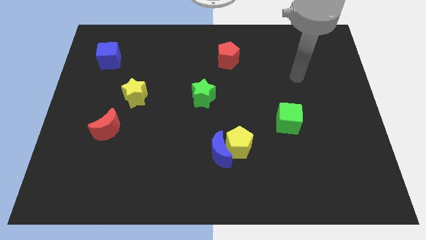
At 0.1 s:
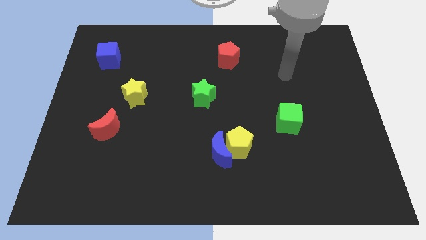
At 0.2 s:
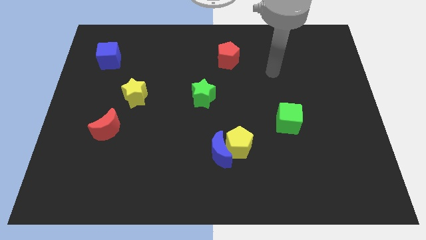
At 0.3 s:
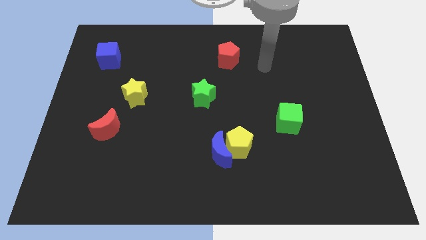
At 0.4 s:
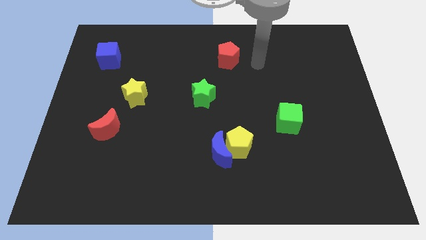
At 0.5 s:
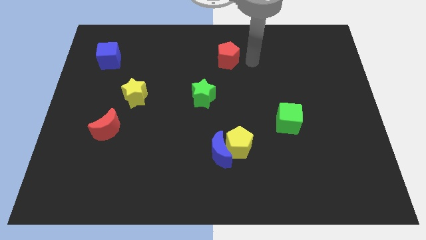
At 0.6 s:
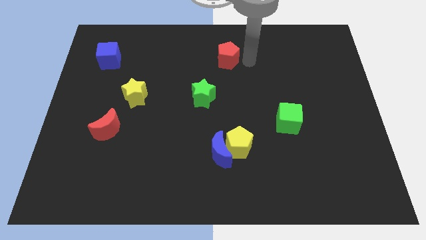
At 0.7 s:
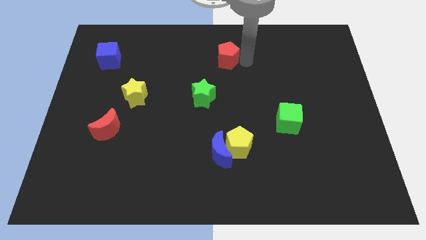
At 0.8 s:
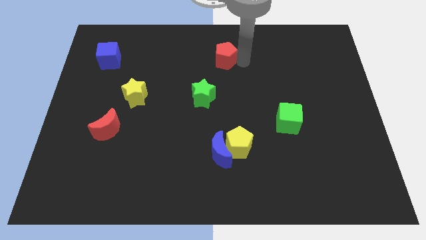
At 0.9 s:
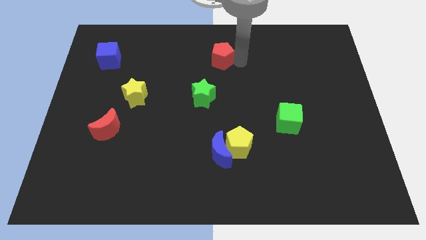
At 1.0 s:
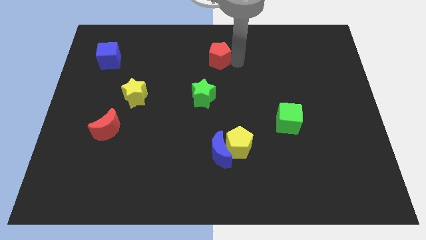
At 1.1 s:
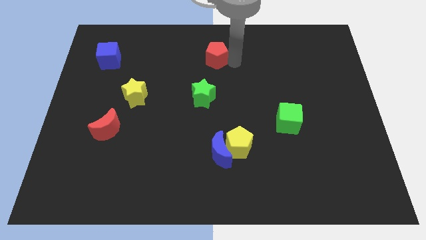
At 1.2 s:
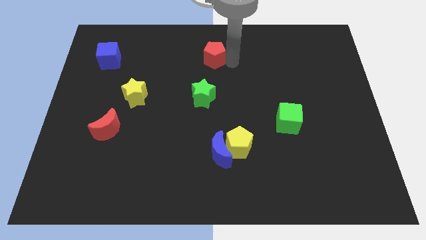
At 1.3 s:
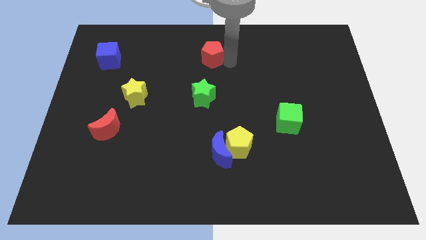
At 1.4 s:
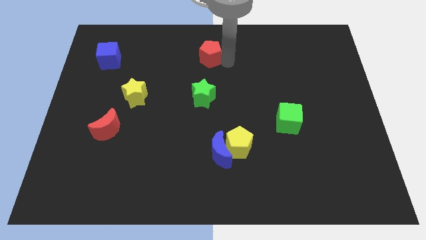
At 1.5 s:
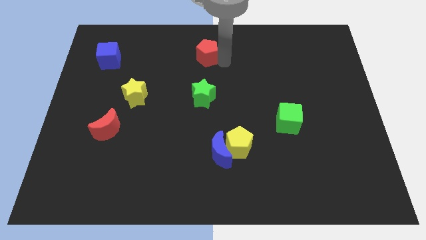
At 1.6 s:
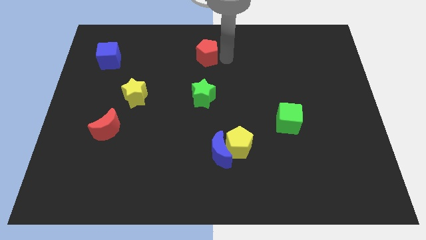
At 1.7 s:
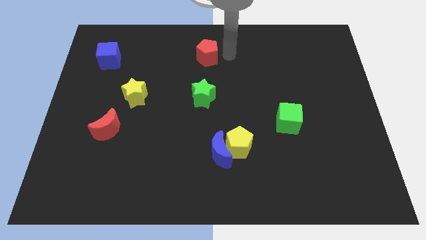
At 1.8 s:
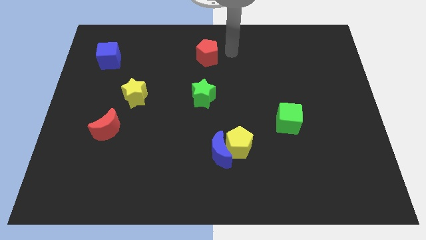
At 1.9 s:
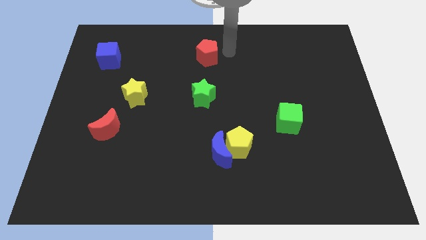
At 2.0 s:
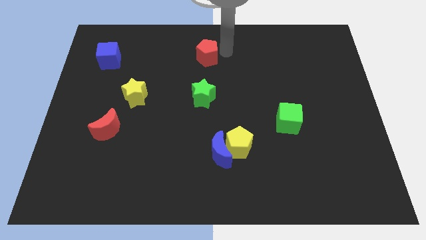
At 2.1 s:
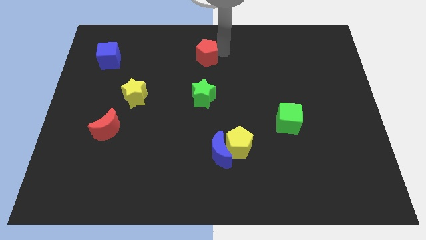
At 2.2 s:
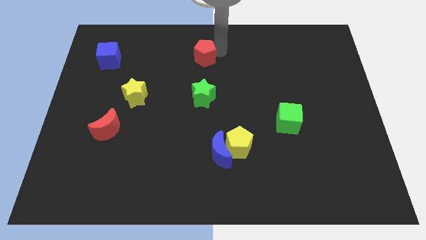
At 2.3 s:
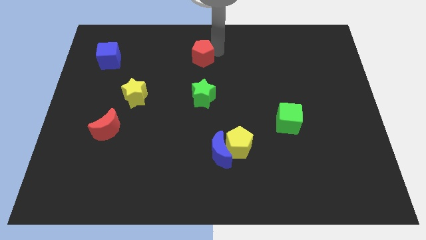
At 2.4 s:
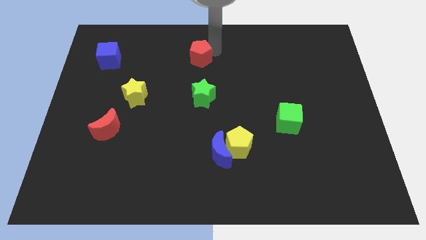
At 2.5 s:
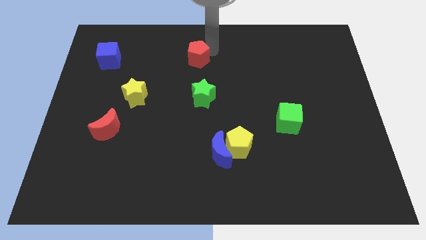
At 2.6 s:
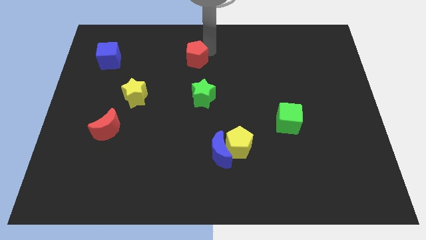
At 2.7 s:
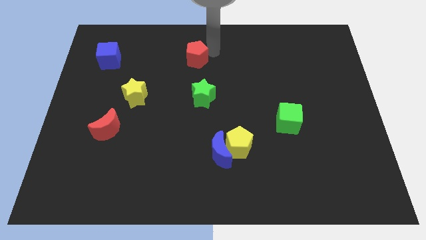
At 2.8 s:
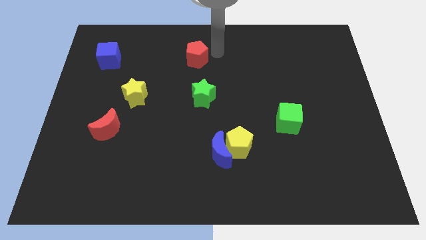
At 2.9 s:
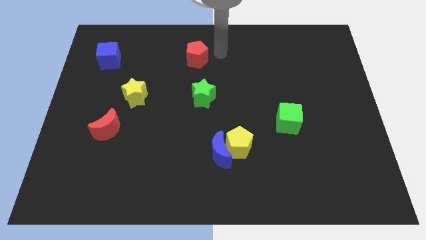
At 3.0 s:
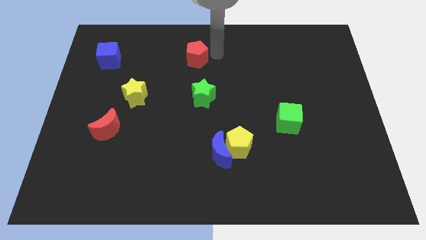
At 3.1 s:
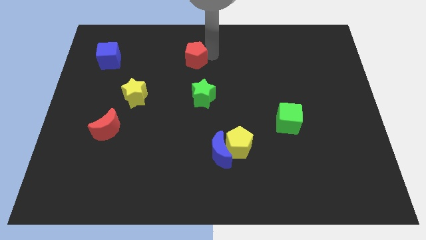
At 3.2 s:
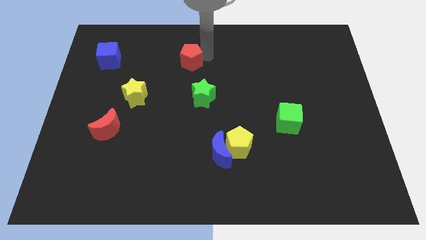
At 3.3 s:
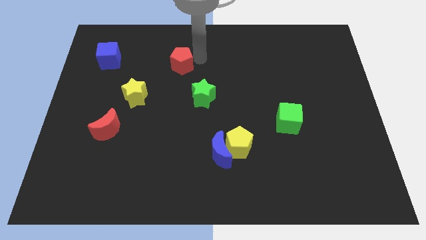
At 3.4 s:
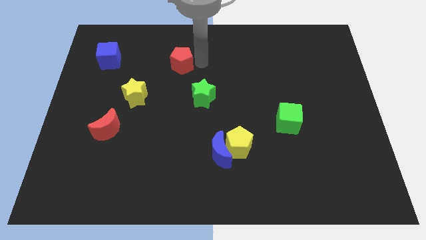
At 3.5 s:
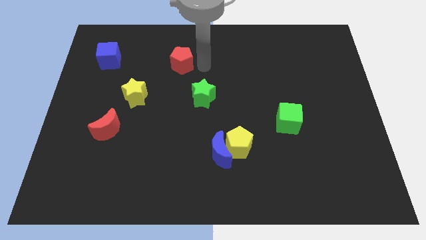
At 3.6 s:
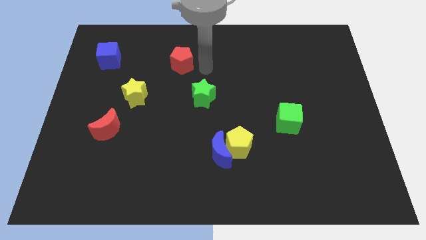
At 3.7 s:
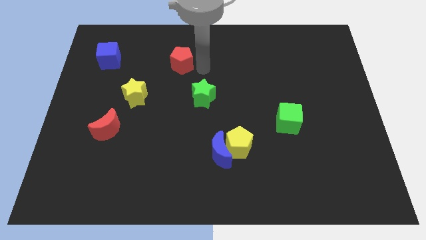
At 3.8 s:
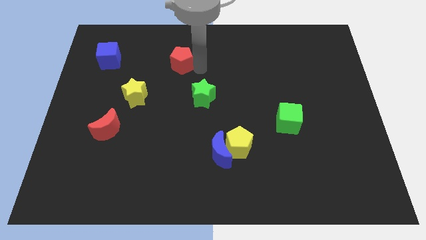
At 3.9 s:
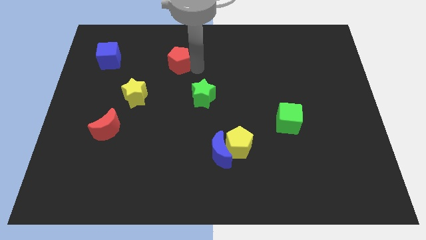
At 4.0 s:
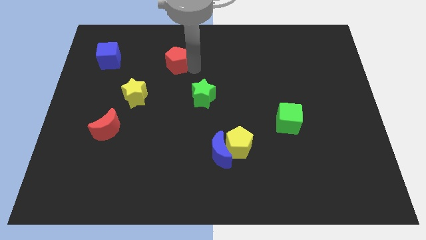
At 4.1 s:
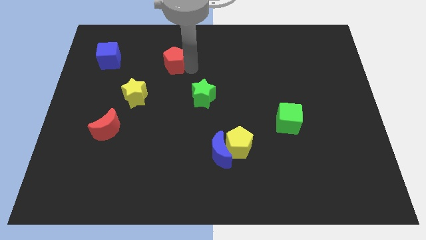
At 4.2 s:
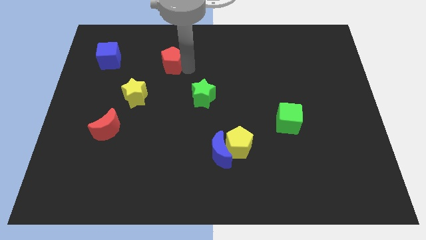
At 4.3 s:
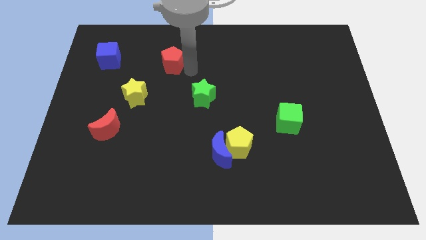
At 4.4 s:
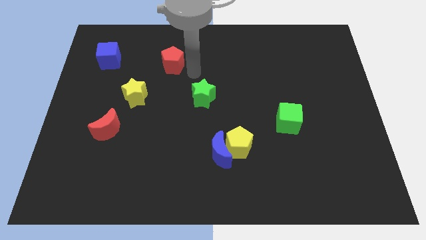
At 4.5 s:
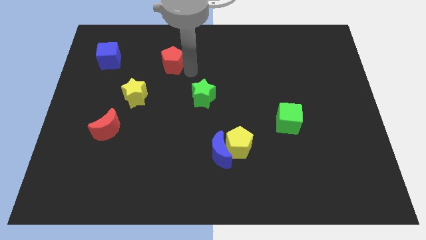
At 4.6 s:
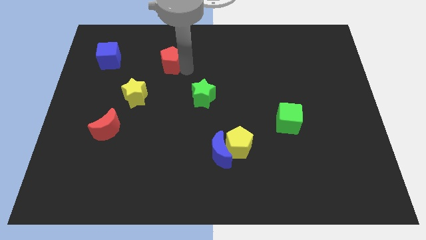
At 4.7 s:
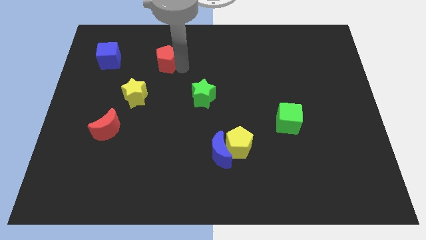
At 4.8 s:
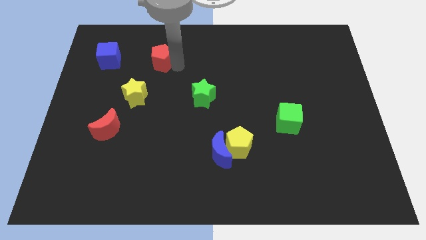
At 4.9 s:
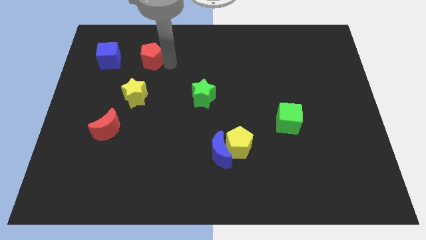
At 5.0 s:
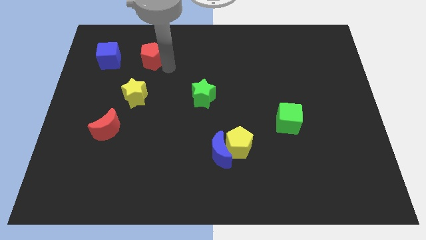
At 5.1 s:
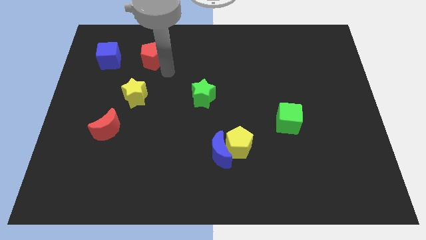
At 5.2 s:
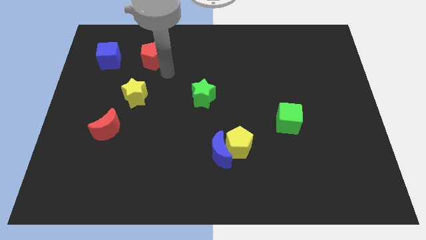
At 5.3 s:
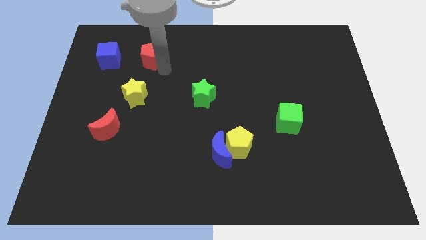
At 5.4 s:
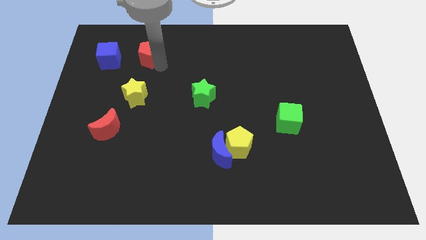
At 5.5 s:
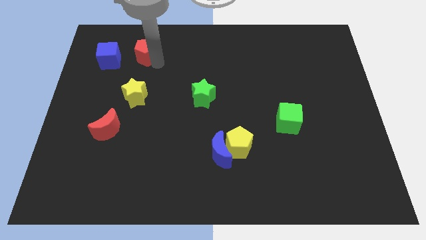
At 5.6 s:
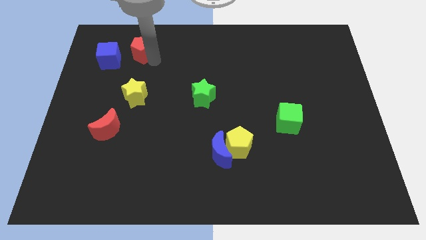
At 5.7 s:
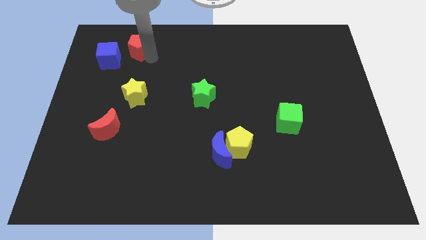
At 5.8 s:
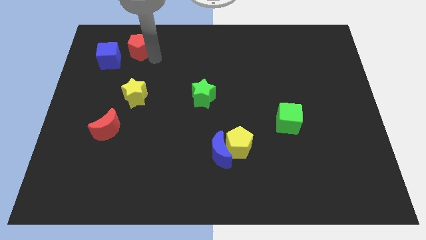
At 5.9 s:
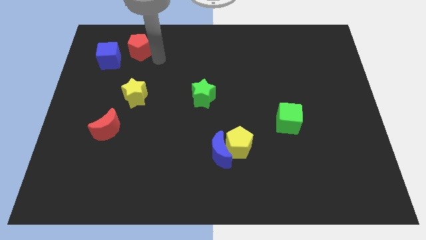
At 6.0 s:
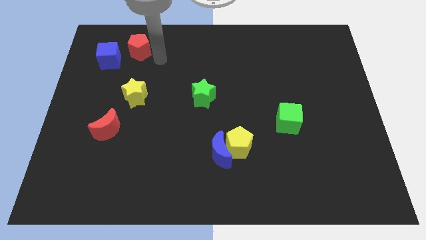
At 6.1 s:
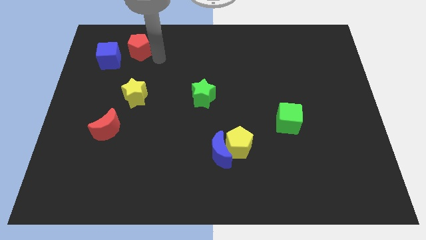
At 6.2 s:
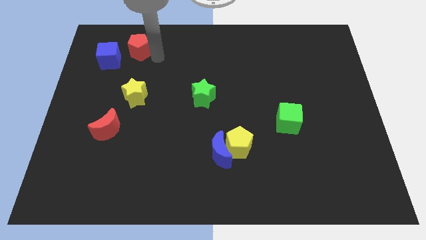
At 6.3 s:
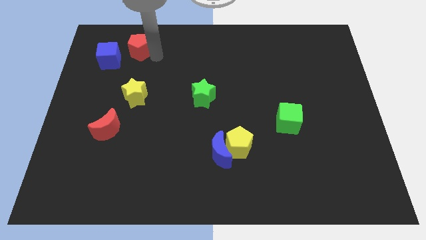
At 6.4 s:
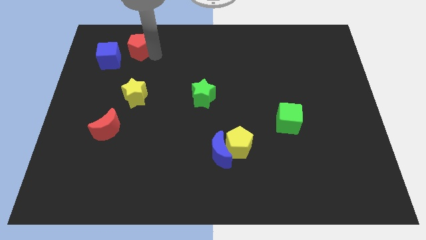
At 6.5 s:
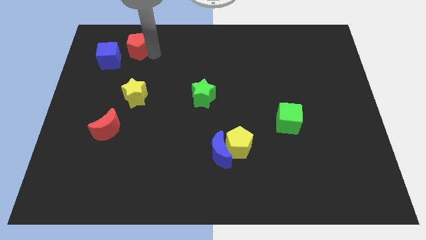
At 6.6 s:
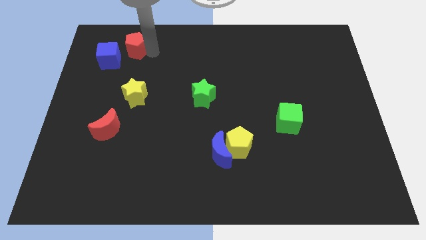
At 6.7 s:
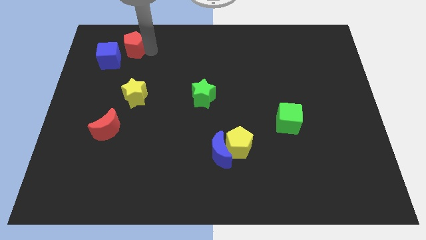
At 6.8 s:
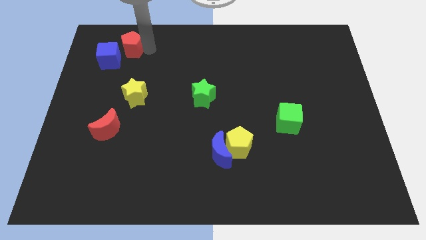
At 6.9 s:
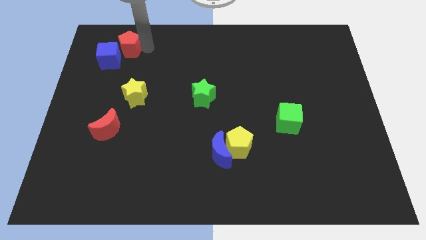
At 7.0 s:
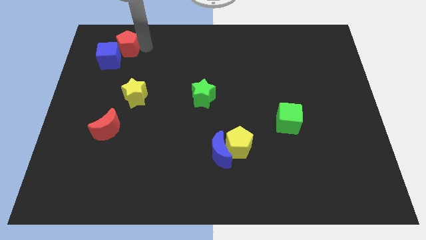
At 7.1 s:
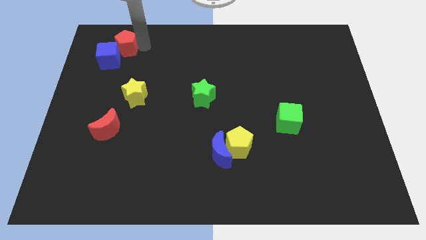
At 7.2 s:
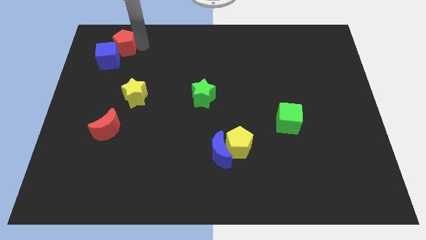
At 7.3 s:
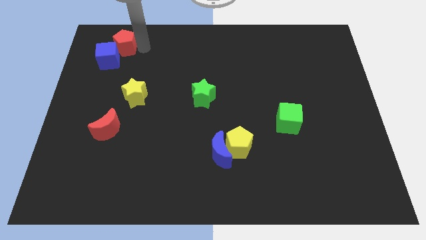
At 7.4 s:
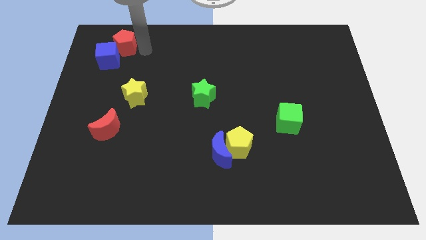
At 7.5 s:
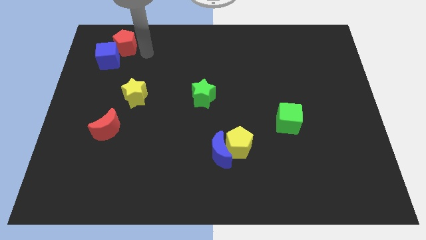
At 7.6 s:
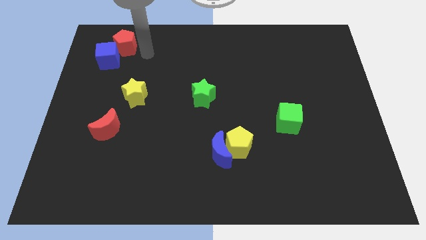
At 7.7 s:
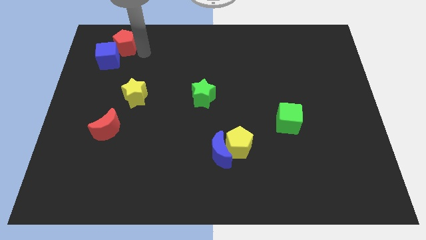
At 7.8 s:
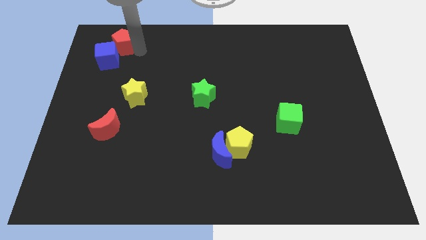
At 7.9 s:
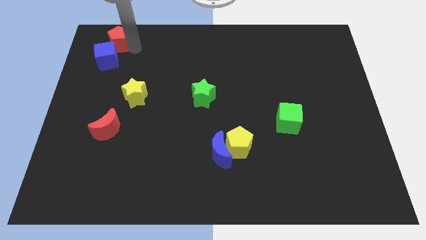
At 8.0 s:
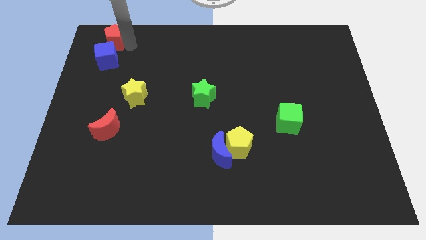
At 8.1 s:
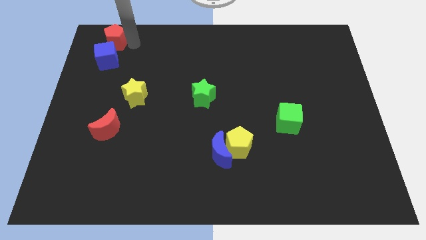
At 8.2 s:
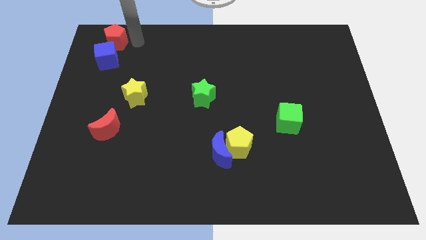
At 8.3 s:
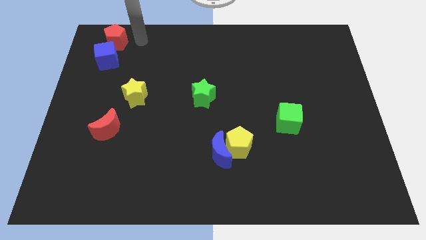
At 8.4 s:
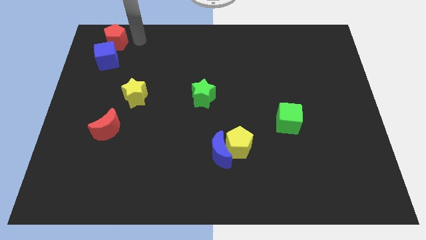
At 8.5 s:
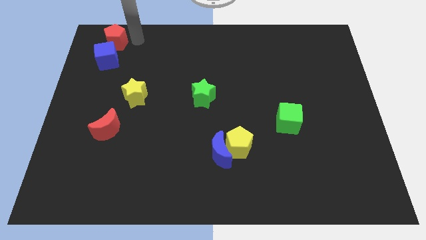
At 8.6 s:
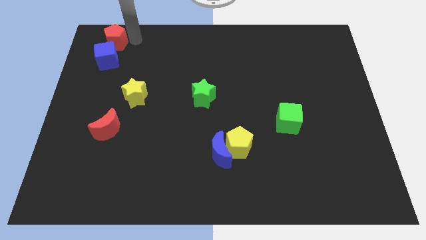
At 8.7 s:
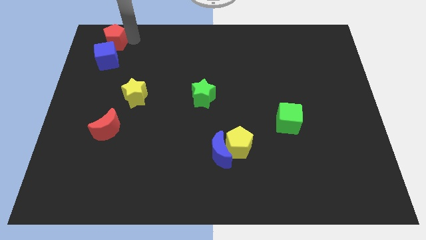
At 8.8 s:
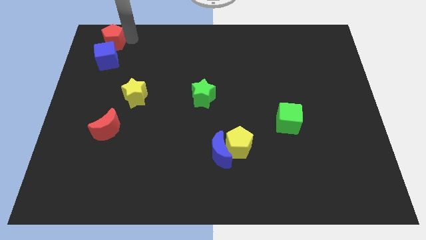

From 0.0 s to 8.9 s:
slide the red pentagon to the top left
